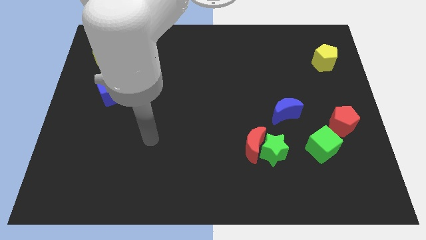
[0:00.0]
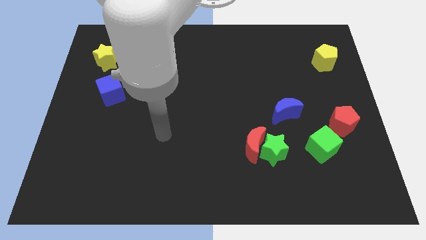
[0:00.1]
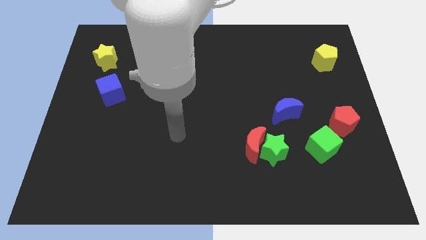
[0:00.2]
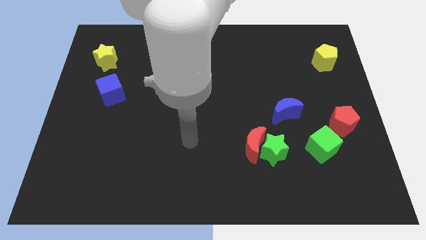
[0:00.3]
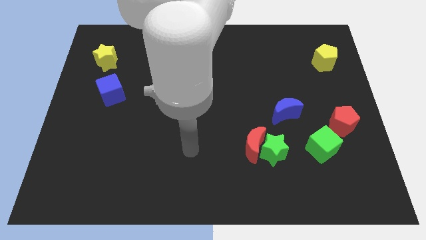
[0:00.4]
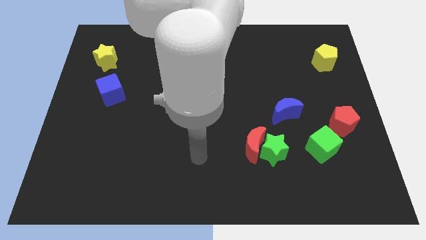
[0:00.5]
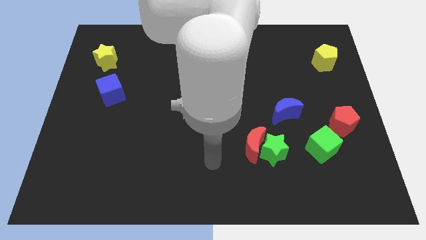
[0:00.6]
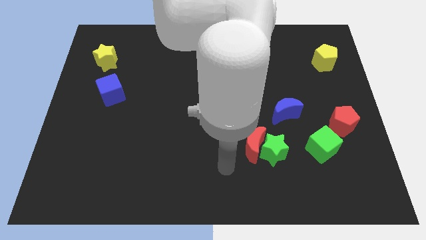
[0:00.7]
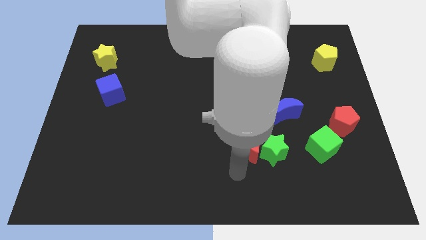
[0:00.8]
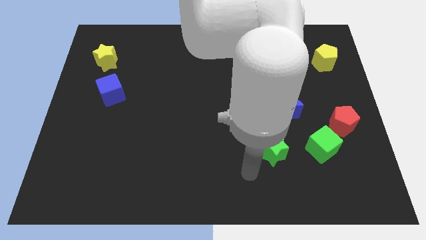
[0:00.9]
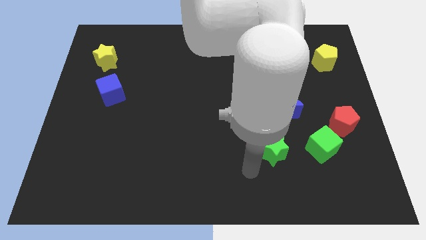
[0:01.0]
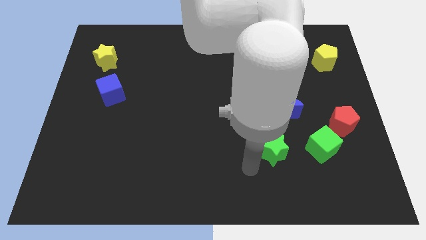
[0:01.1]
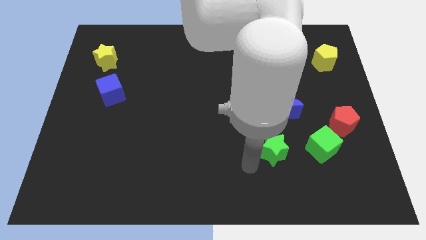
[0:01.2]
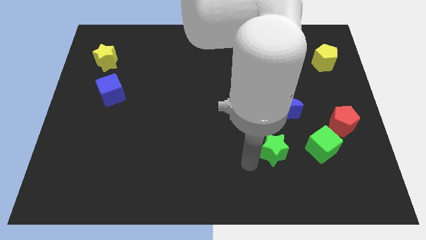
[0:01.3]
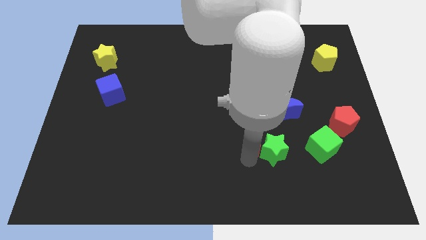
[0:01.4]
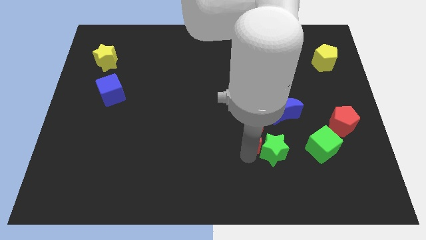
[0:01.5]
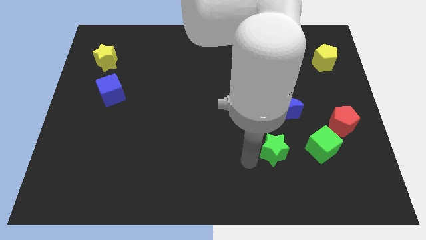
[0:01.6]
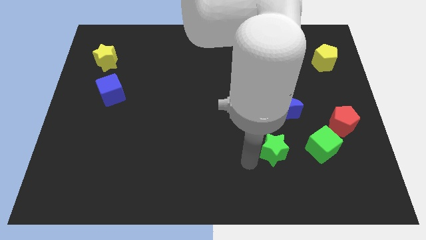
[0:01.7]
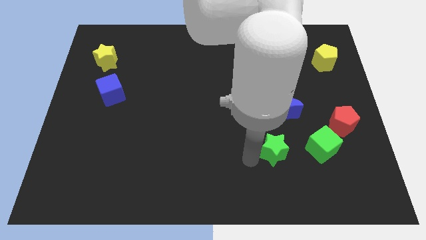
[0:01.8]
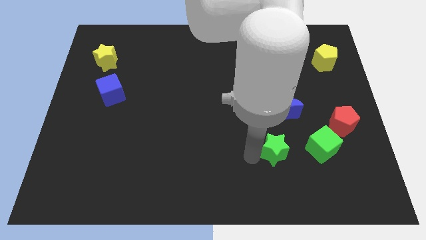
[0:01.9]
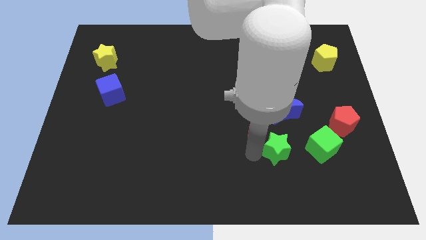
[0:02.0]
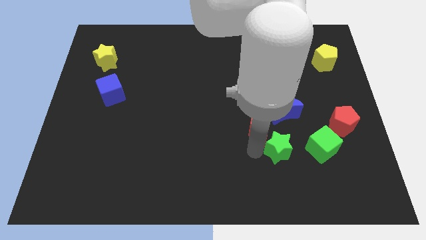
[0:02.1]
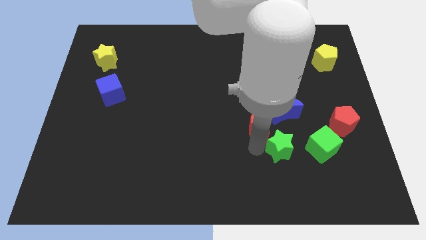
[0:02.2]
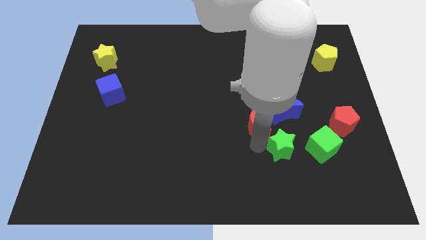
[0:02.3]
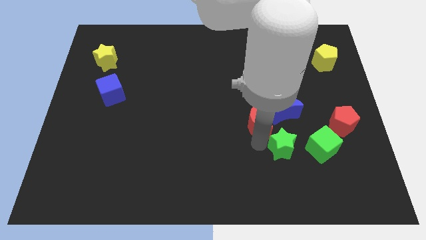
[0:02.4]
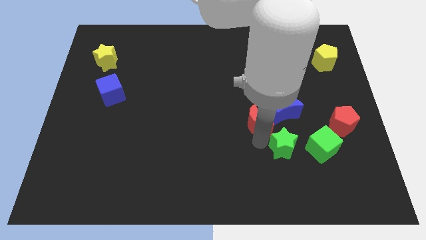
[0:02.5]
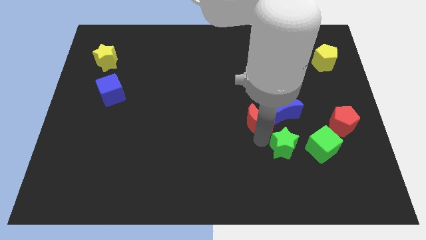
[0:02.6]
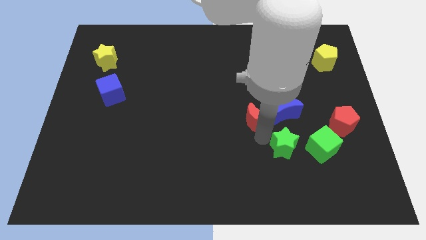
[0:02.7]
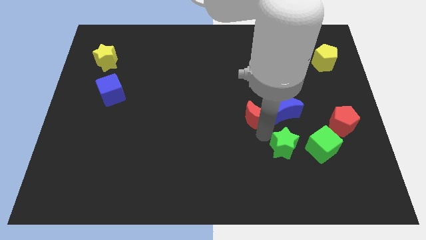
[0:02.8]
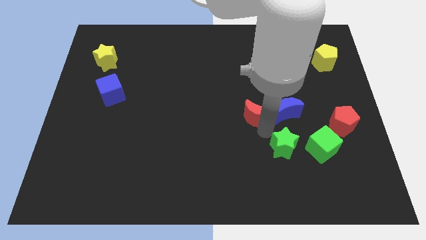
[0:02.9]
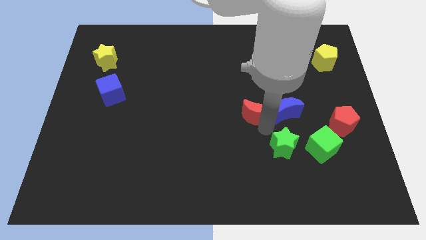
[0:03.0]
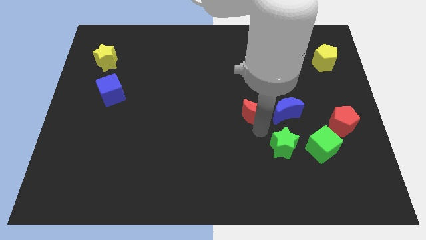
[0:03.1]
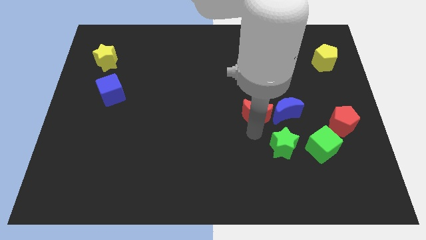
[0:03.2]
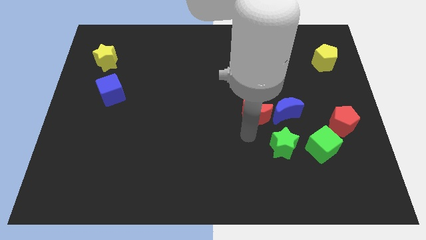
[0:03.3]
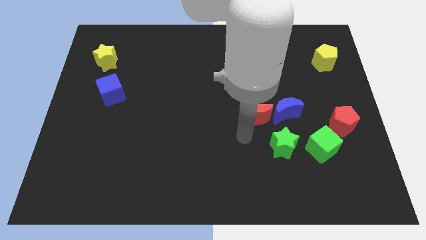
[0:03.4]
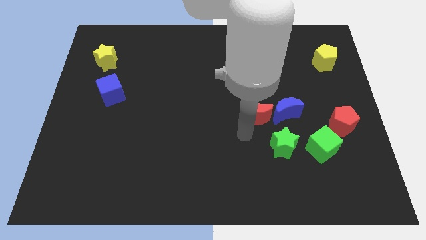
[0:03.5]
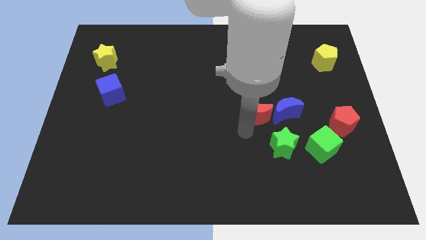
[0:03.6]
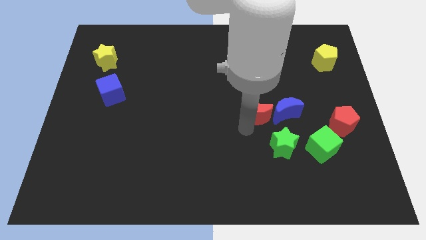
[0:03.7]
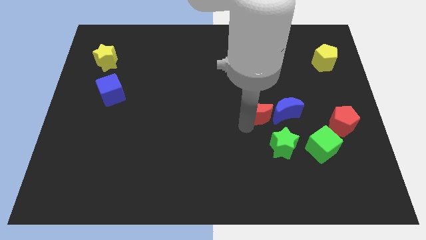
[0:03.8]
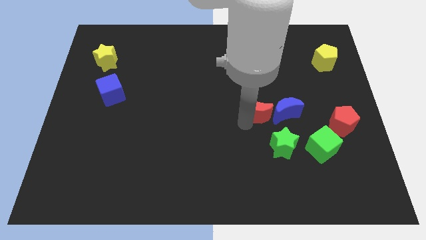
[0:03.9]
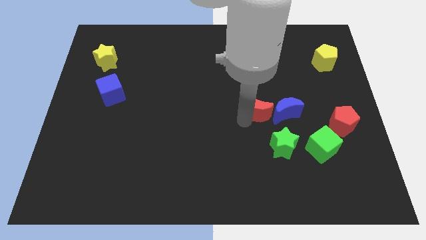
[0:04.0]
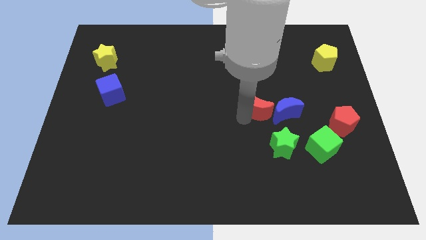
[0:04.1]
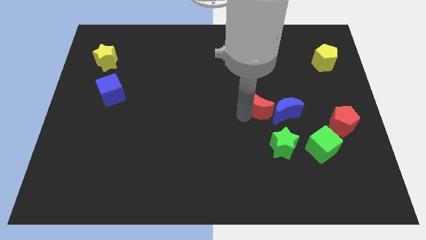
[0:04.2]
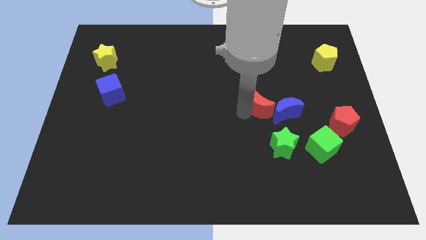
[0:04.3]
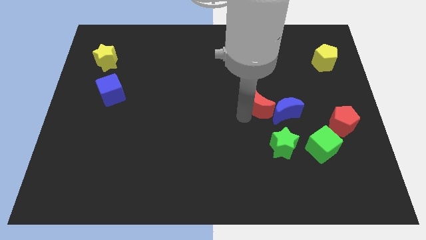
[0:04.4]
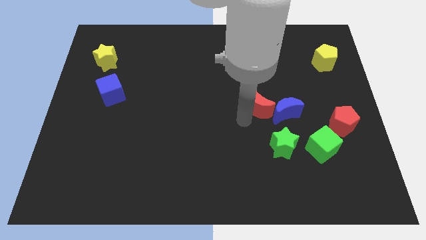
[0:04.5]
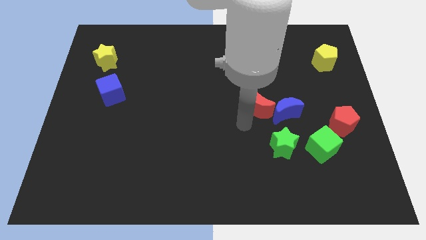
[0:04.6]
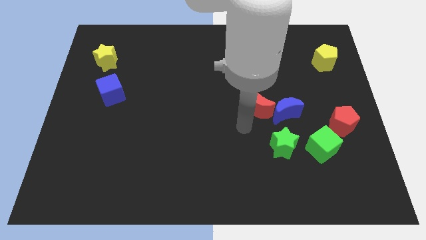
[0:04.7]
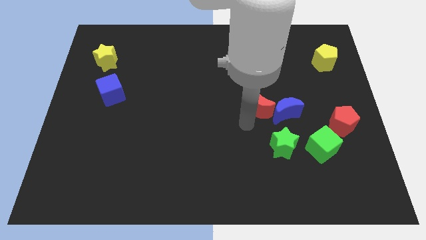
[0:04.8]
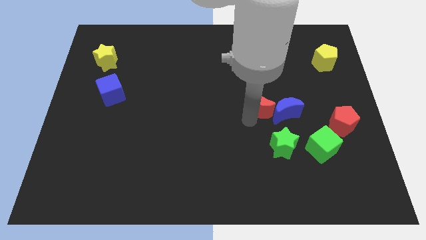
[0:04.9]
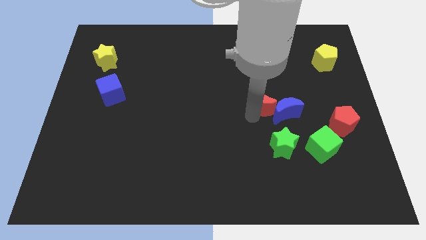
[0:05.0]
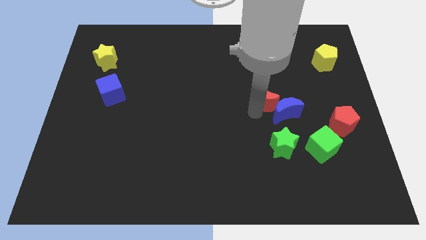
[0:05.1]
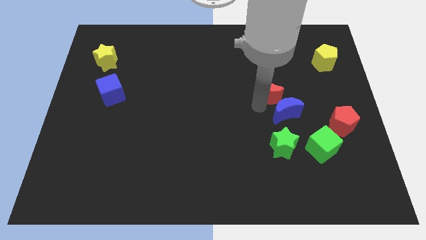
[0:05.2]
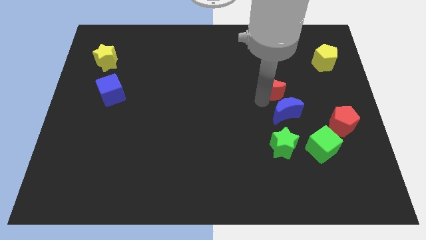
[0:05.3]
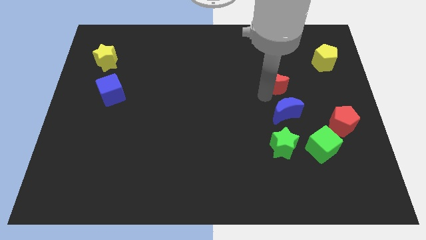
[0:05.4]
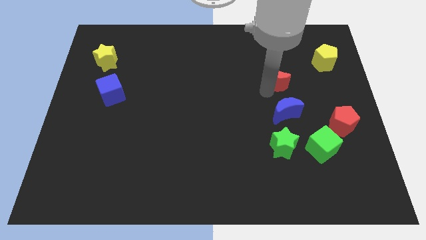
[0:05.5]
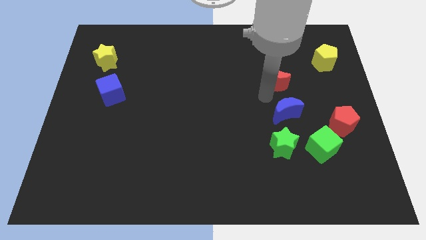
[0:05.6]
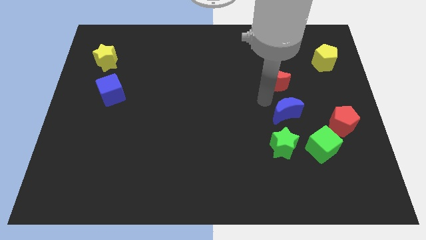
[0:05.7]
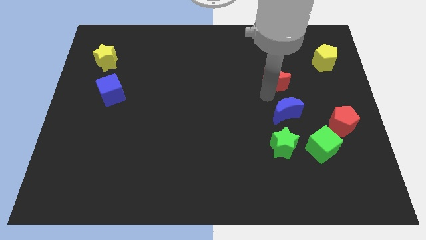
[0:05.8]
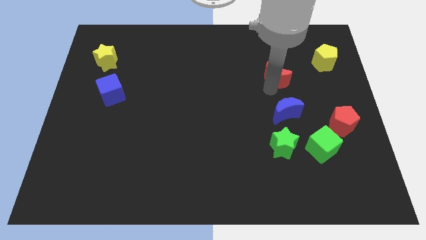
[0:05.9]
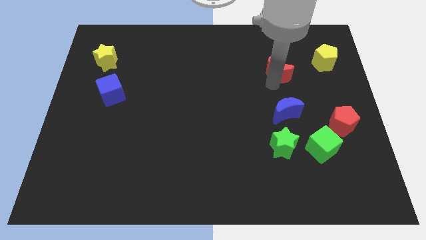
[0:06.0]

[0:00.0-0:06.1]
move the red moon just left of the yellow pentagon

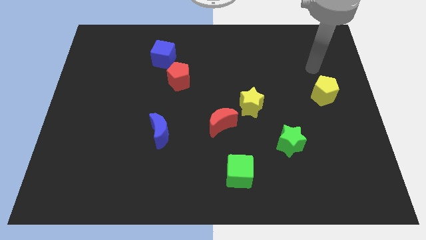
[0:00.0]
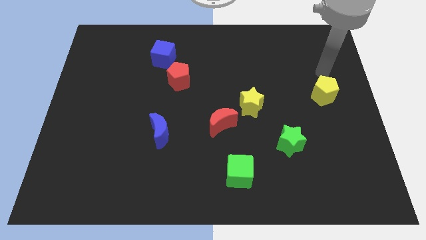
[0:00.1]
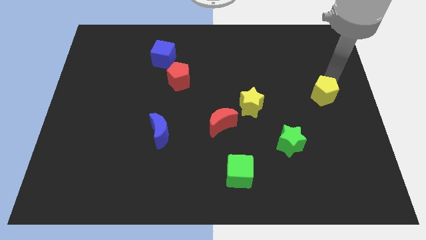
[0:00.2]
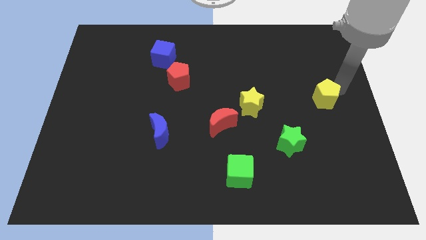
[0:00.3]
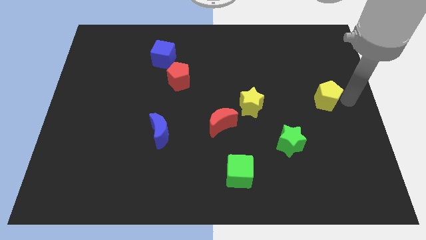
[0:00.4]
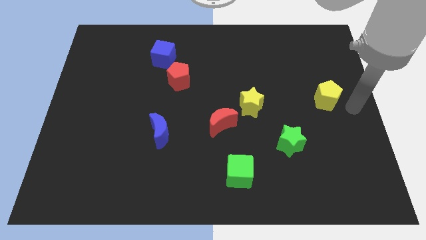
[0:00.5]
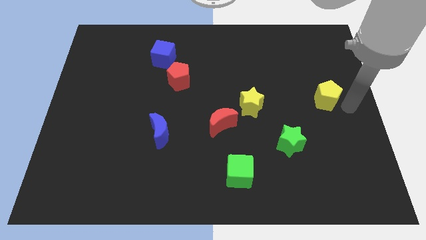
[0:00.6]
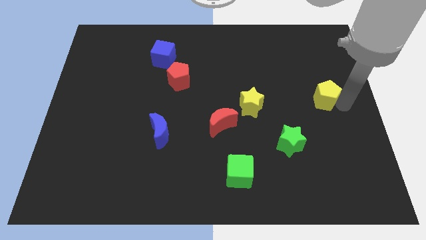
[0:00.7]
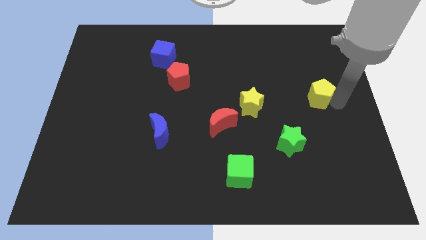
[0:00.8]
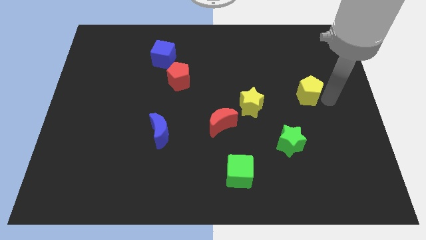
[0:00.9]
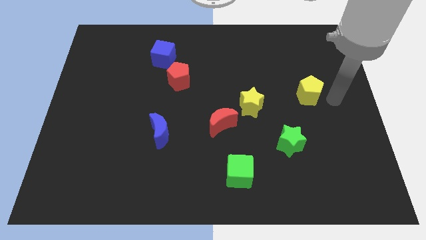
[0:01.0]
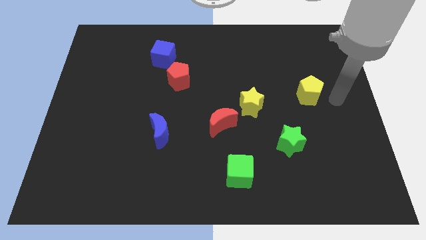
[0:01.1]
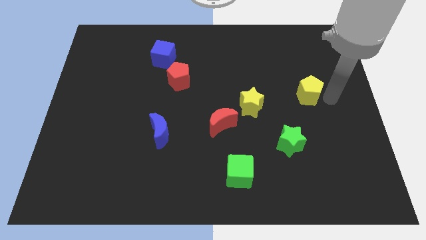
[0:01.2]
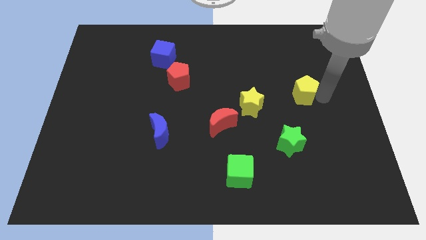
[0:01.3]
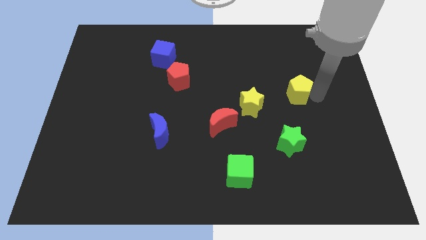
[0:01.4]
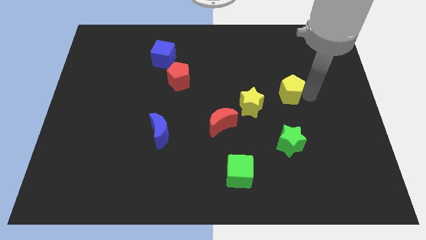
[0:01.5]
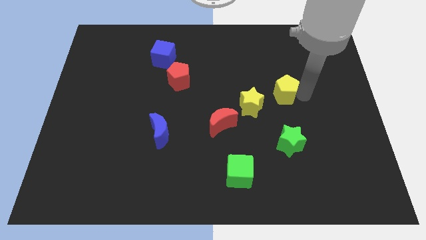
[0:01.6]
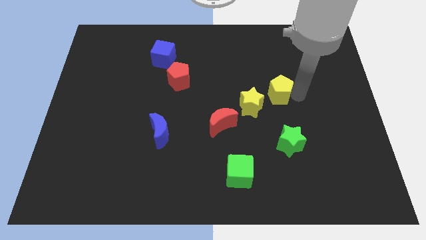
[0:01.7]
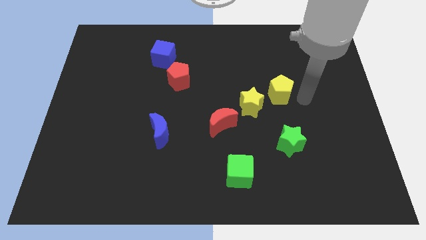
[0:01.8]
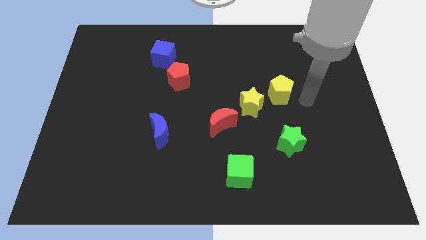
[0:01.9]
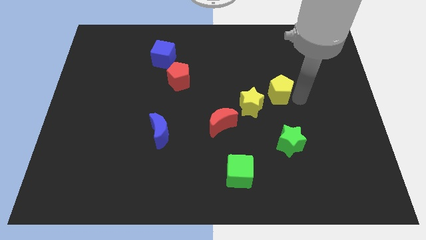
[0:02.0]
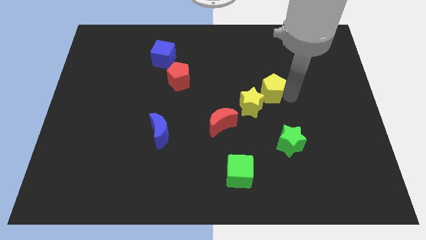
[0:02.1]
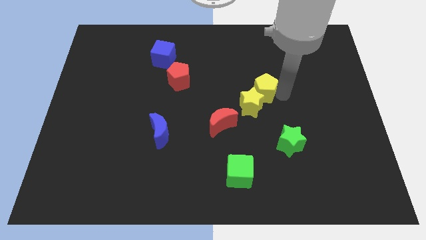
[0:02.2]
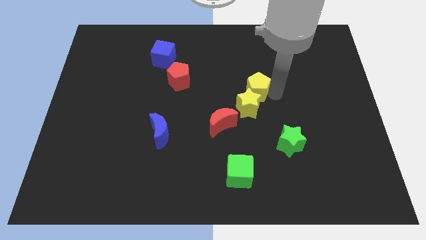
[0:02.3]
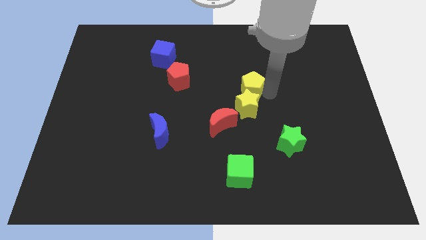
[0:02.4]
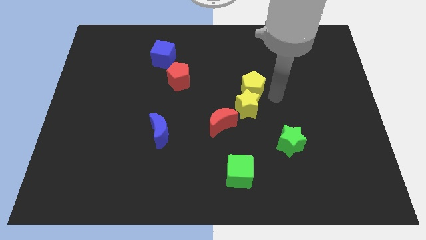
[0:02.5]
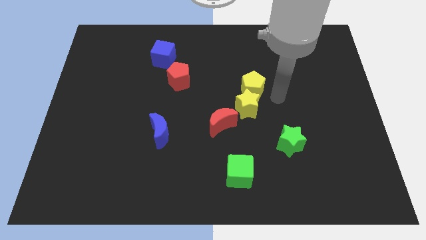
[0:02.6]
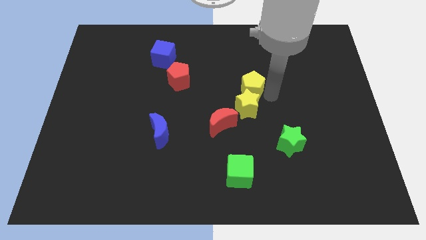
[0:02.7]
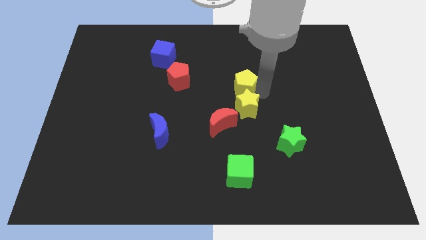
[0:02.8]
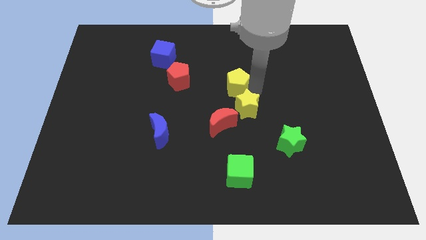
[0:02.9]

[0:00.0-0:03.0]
slide the yellow pentagon to the right side of the red pentagon
